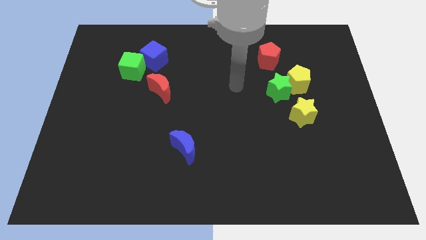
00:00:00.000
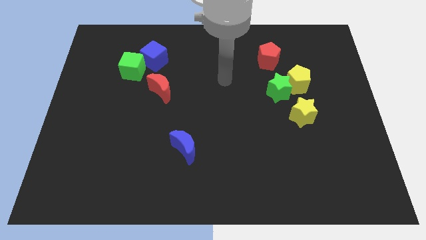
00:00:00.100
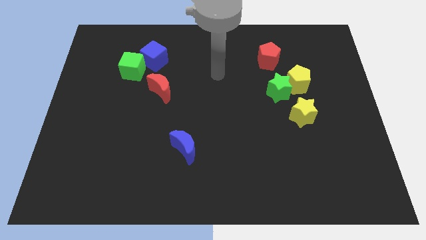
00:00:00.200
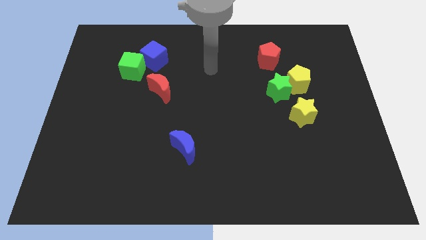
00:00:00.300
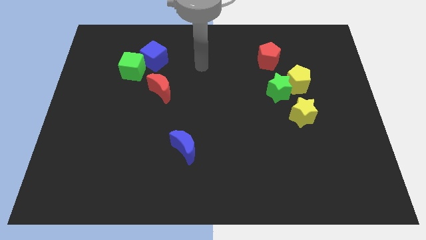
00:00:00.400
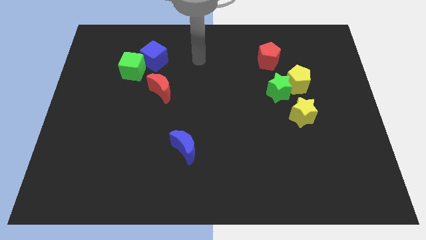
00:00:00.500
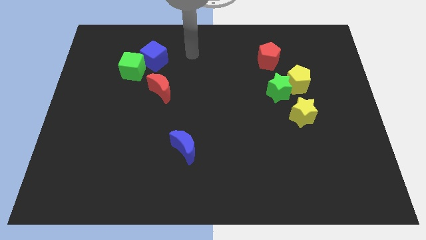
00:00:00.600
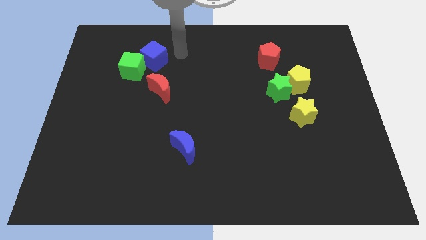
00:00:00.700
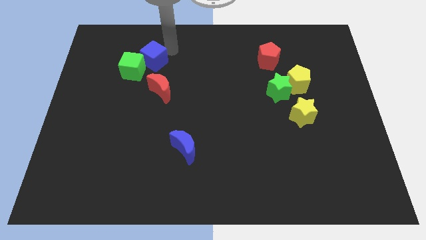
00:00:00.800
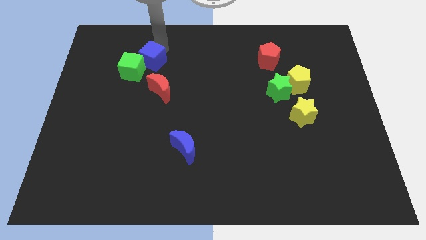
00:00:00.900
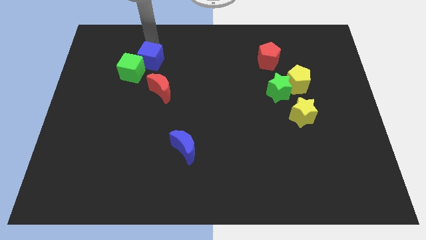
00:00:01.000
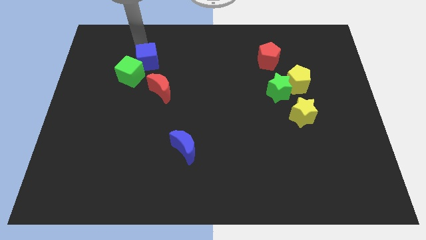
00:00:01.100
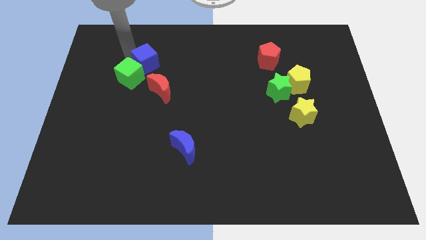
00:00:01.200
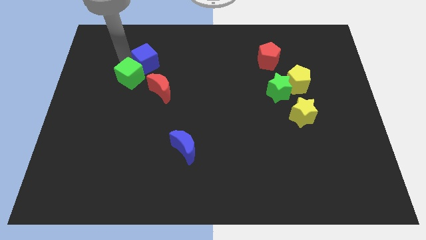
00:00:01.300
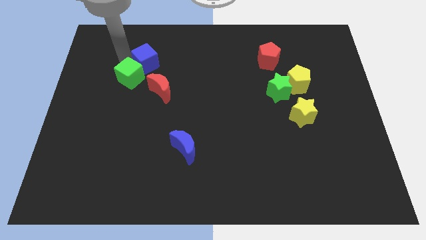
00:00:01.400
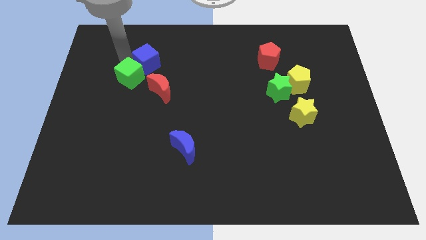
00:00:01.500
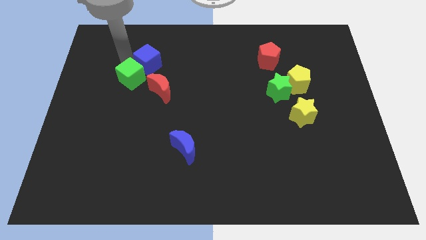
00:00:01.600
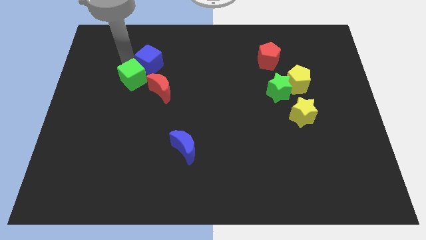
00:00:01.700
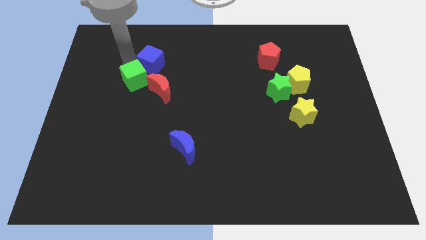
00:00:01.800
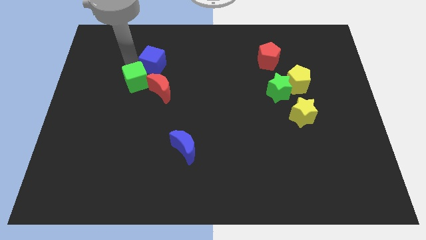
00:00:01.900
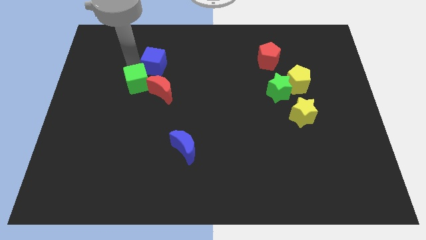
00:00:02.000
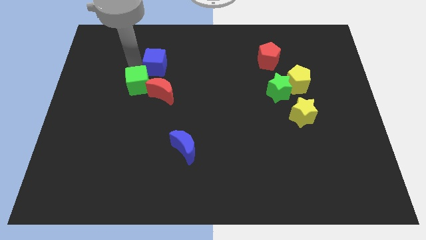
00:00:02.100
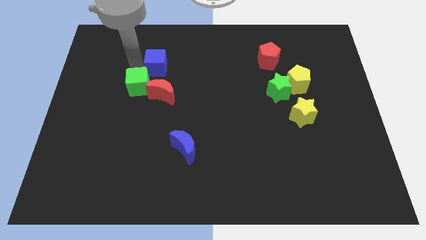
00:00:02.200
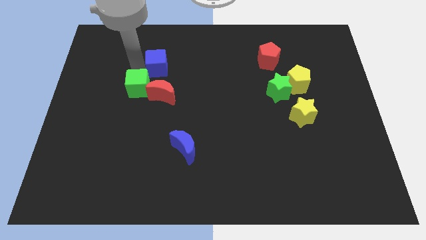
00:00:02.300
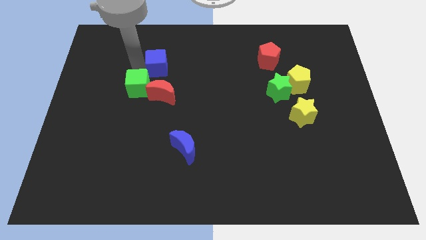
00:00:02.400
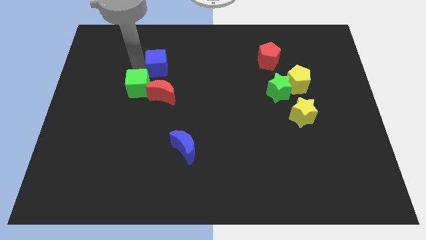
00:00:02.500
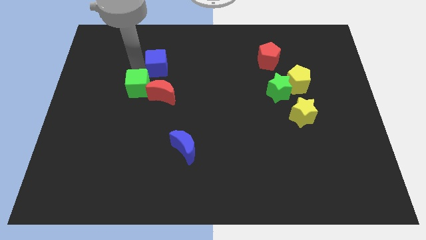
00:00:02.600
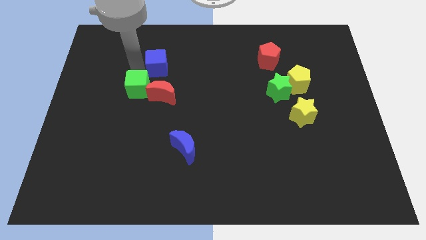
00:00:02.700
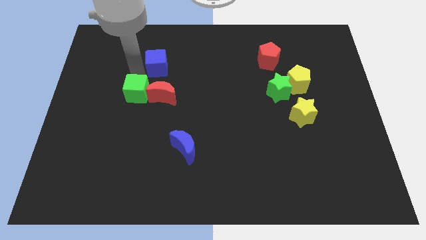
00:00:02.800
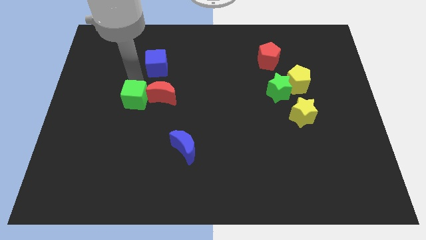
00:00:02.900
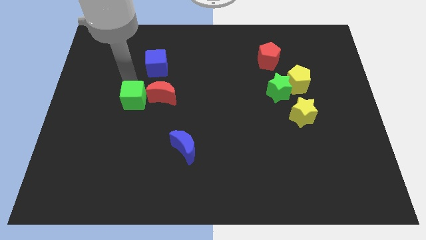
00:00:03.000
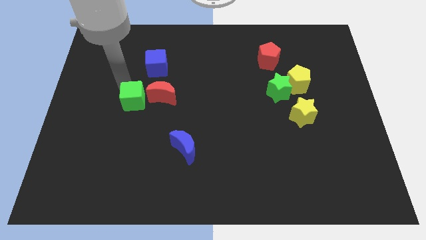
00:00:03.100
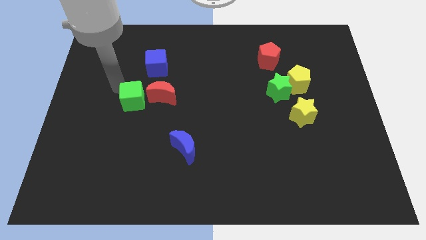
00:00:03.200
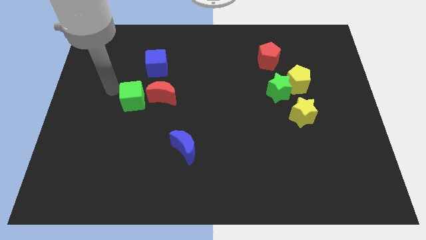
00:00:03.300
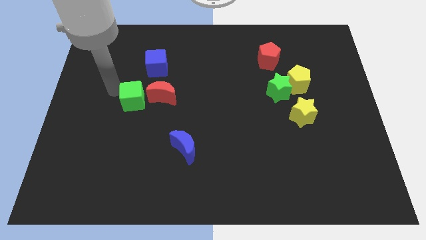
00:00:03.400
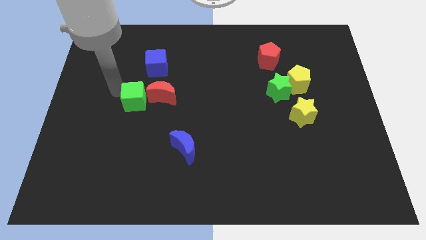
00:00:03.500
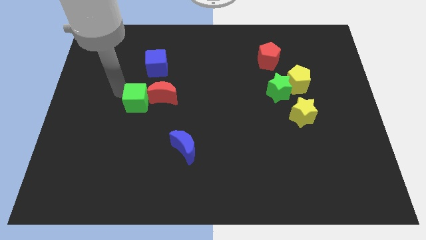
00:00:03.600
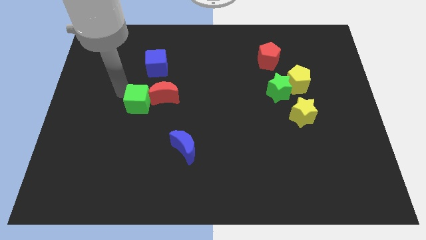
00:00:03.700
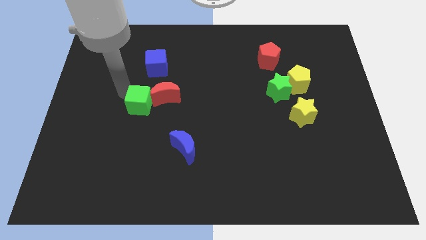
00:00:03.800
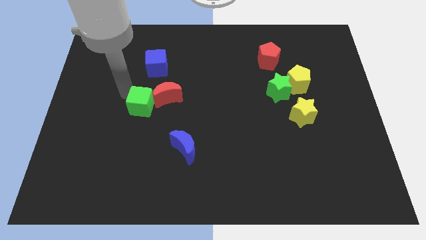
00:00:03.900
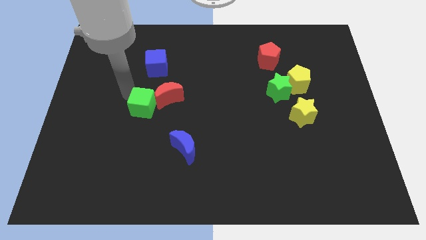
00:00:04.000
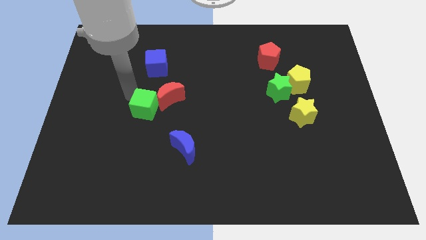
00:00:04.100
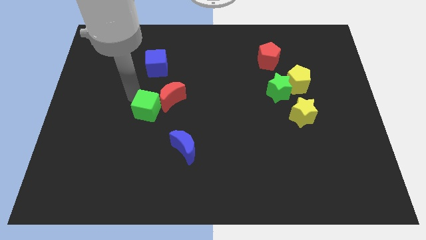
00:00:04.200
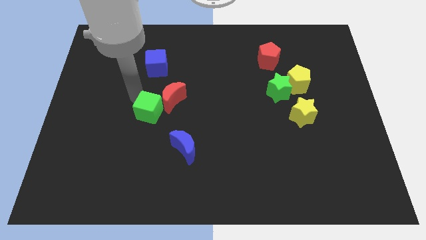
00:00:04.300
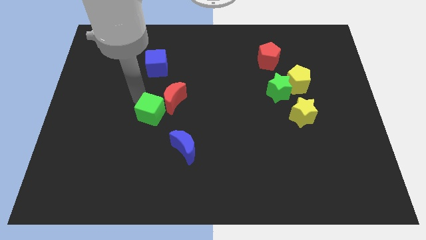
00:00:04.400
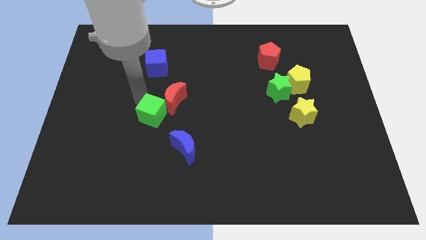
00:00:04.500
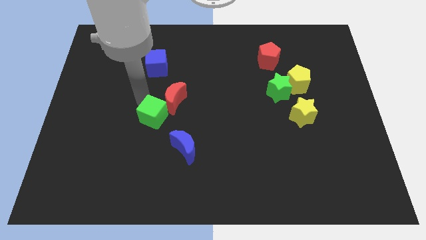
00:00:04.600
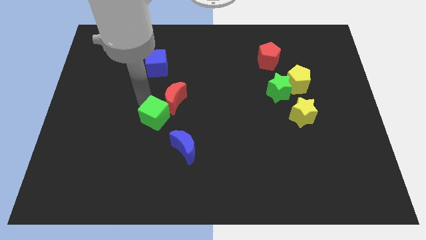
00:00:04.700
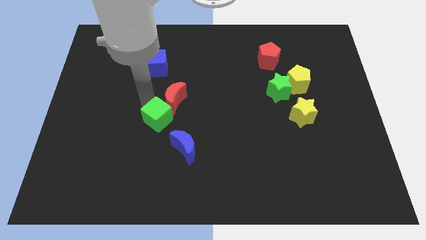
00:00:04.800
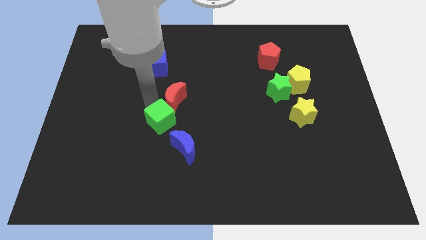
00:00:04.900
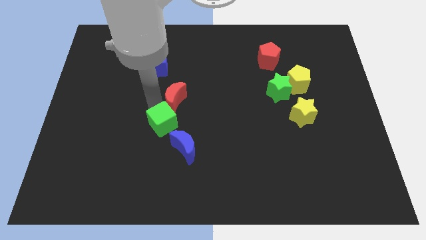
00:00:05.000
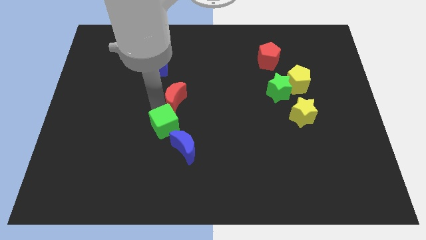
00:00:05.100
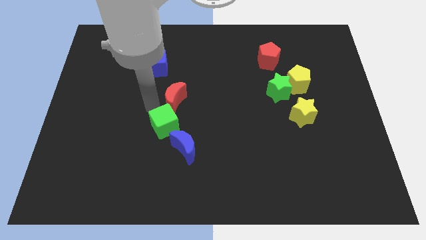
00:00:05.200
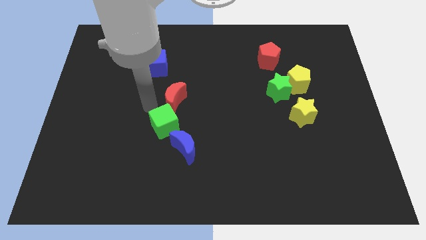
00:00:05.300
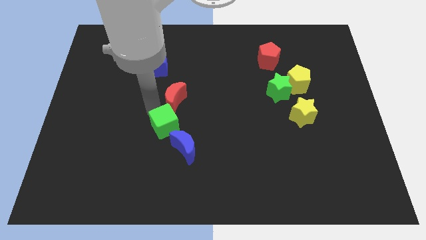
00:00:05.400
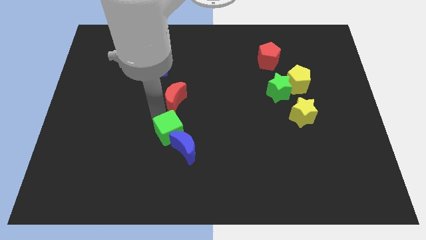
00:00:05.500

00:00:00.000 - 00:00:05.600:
put the green cube next to the blue moon

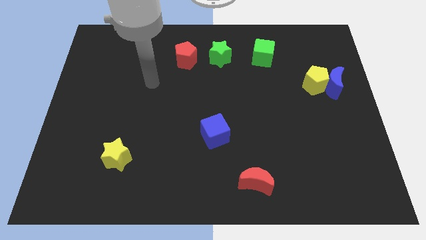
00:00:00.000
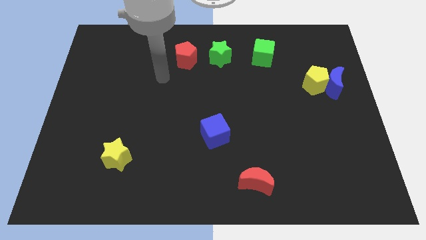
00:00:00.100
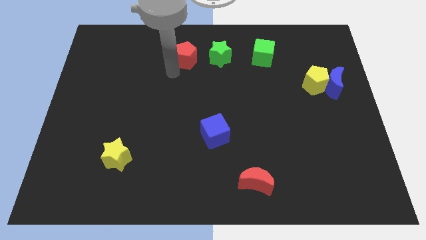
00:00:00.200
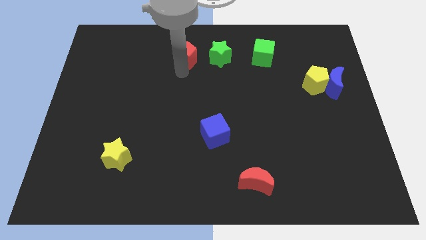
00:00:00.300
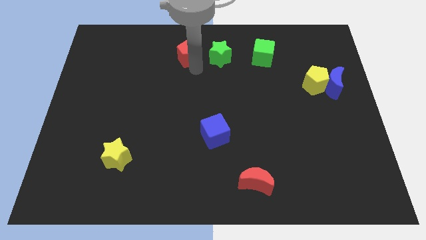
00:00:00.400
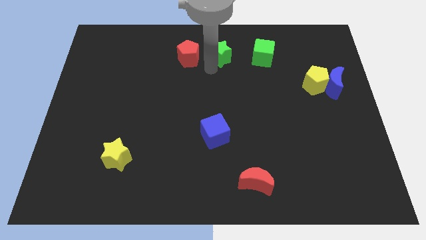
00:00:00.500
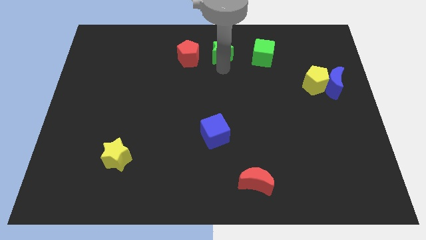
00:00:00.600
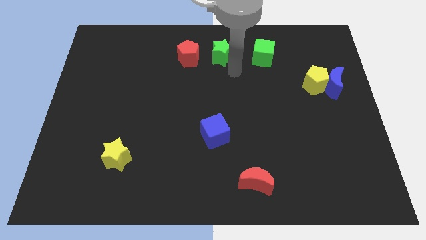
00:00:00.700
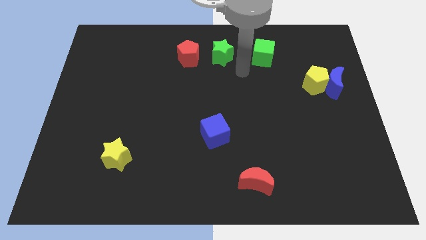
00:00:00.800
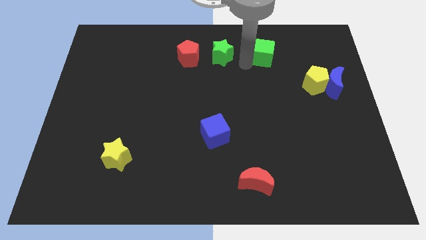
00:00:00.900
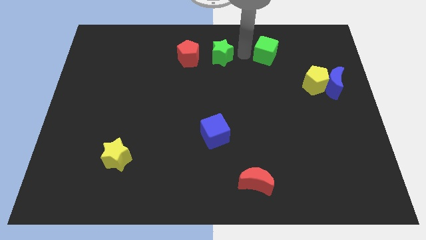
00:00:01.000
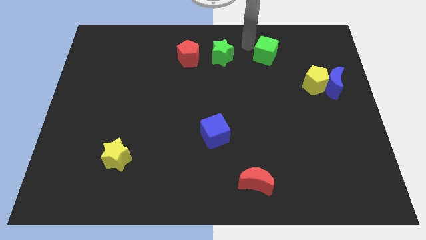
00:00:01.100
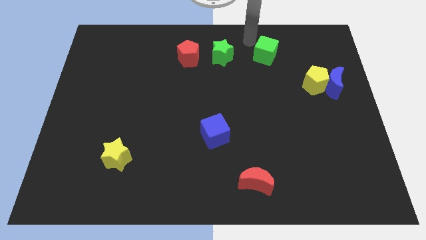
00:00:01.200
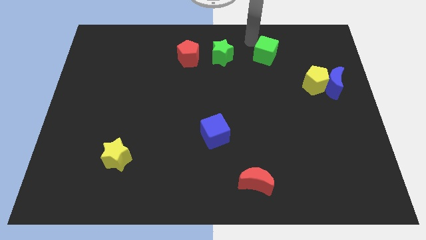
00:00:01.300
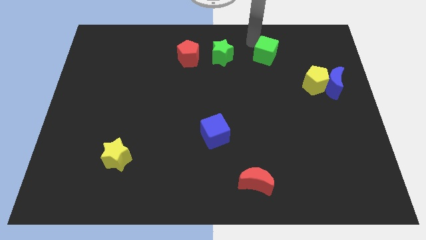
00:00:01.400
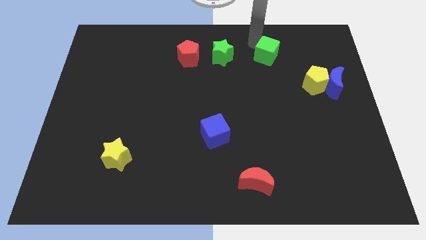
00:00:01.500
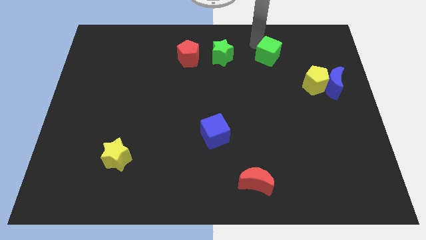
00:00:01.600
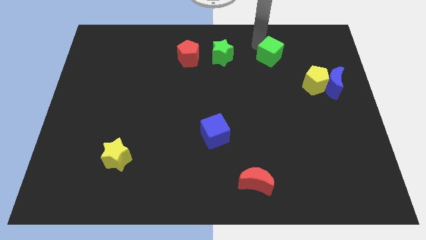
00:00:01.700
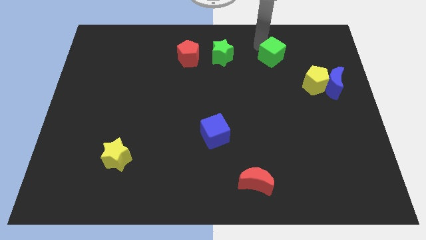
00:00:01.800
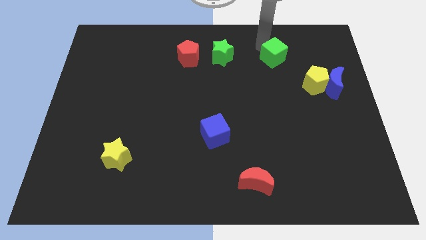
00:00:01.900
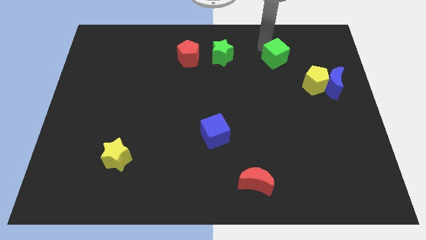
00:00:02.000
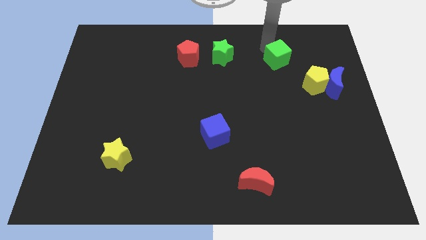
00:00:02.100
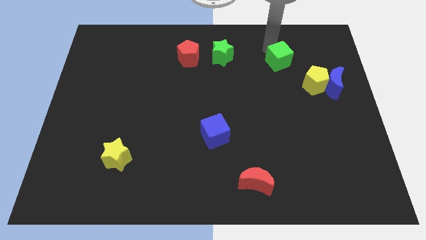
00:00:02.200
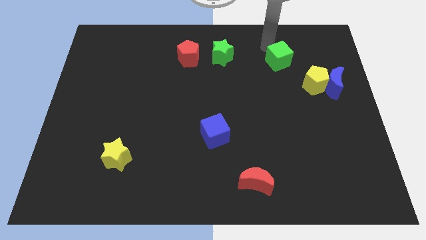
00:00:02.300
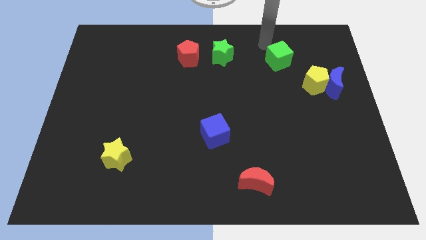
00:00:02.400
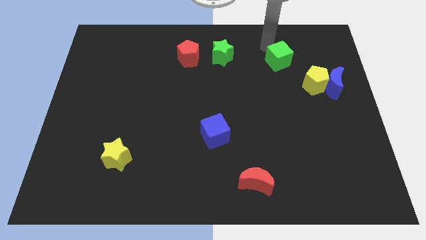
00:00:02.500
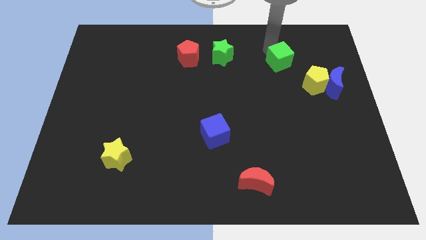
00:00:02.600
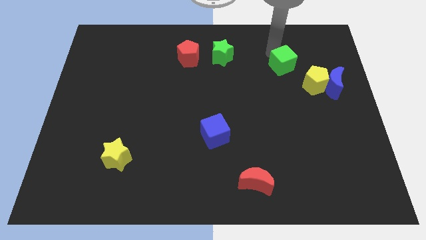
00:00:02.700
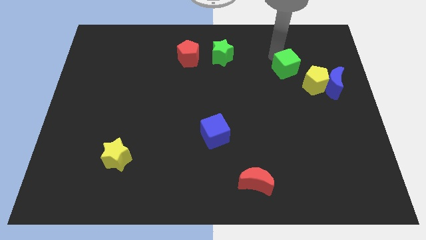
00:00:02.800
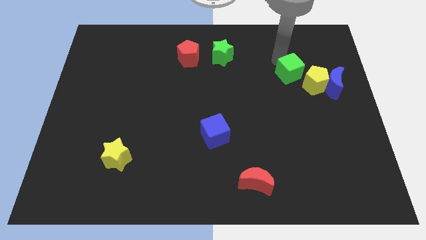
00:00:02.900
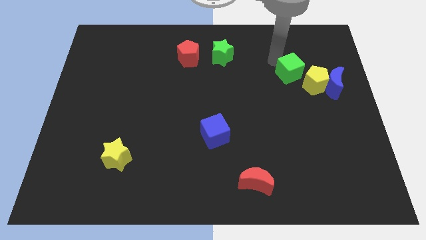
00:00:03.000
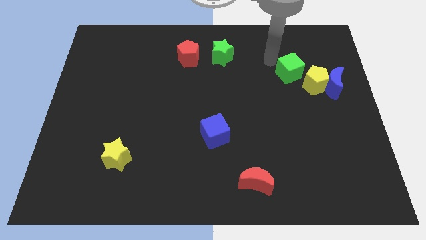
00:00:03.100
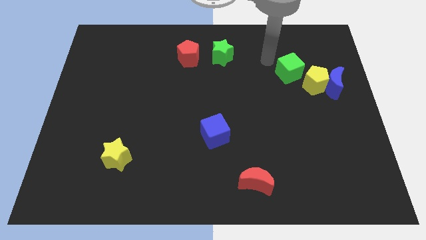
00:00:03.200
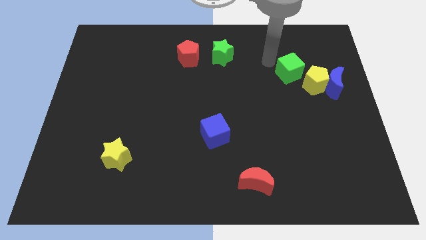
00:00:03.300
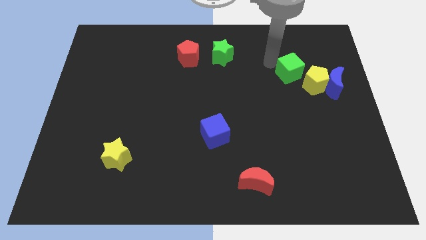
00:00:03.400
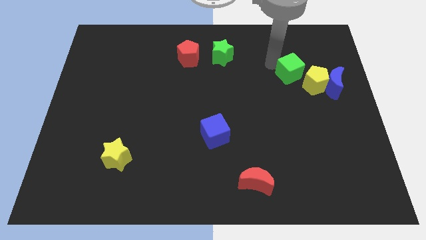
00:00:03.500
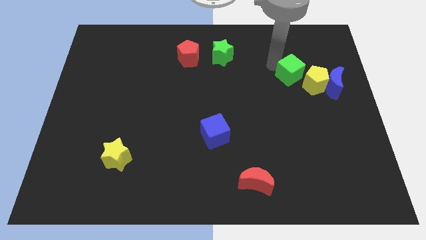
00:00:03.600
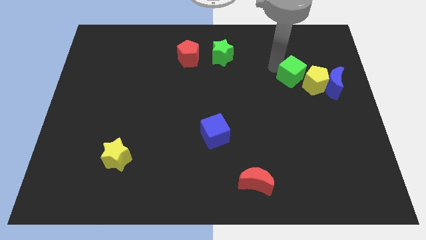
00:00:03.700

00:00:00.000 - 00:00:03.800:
move the green cube next to the yellow pentagon
